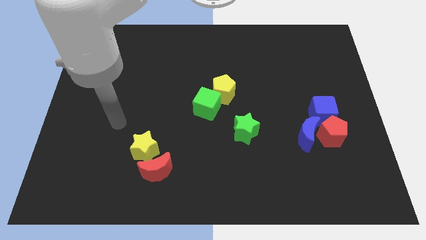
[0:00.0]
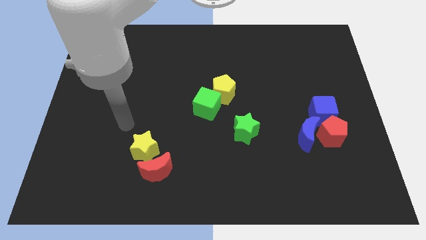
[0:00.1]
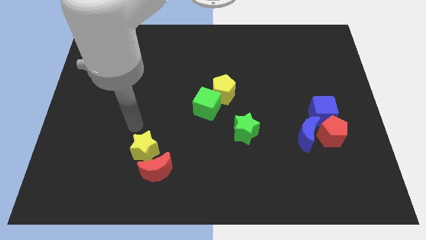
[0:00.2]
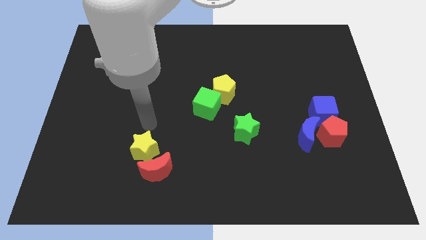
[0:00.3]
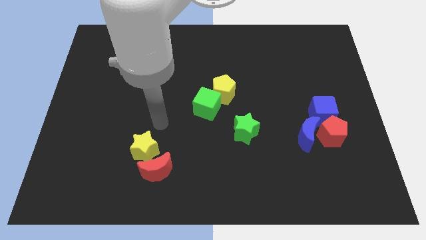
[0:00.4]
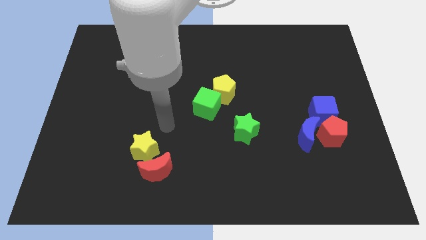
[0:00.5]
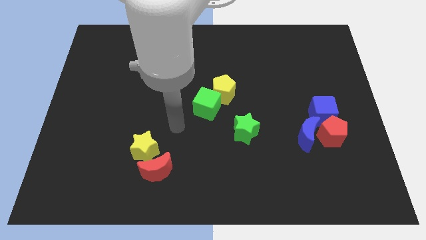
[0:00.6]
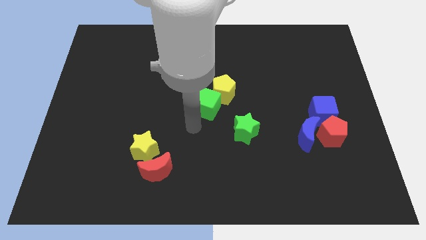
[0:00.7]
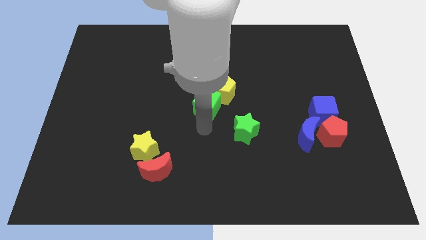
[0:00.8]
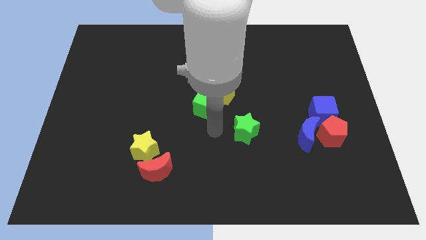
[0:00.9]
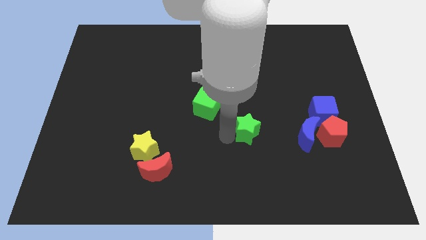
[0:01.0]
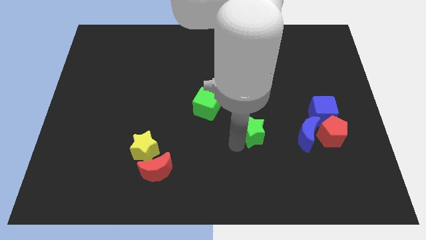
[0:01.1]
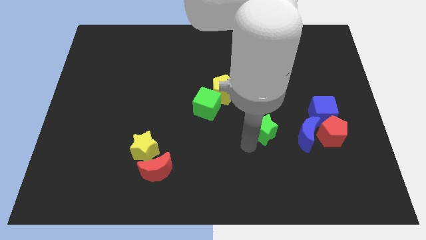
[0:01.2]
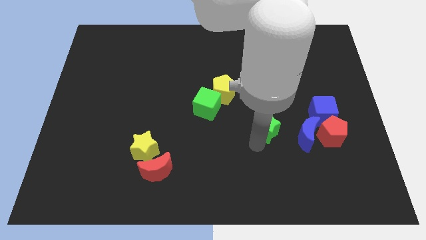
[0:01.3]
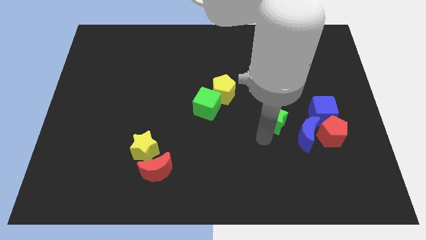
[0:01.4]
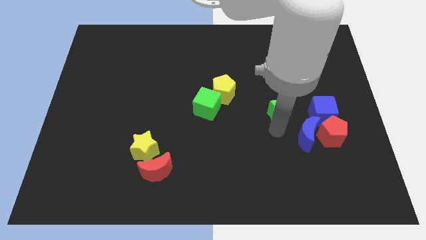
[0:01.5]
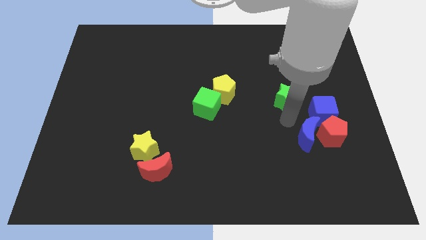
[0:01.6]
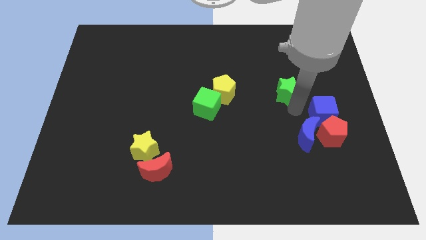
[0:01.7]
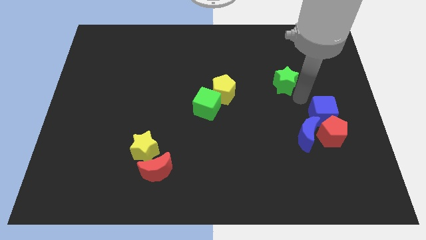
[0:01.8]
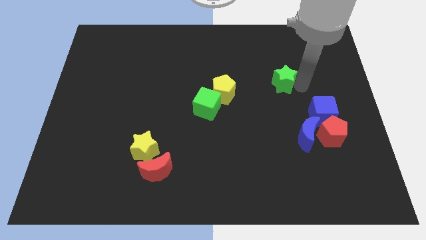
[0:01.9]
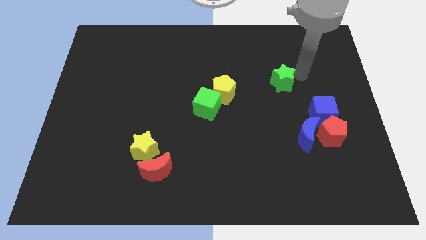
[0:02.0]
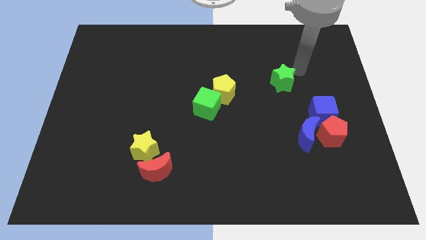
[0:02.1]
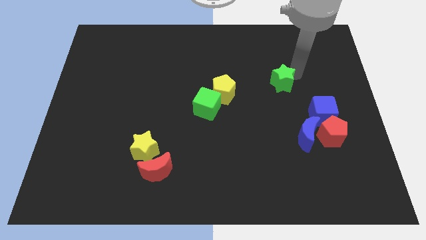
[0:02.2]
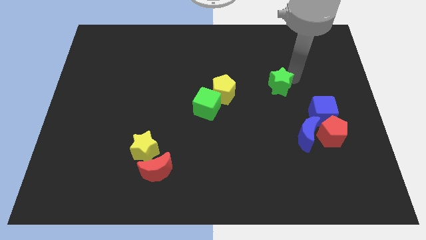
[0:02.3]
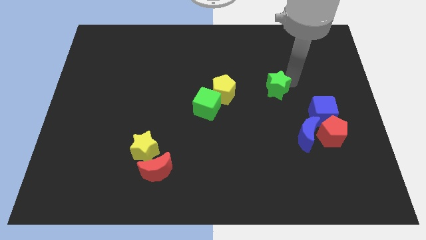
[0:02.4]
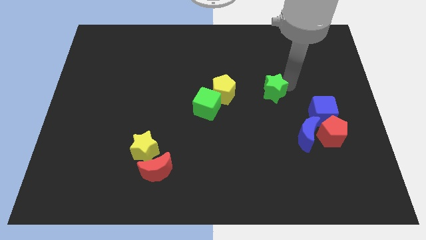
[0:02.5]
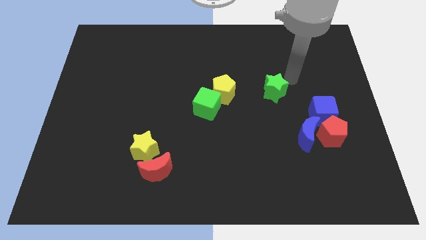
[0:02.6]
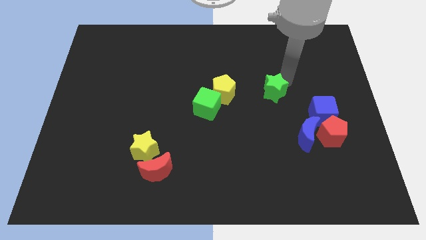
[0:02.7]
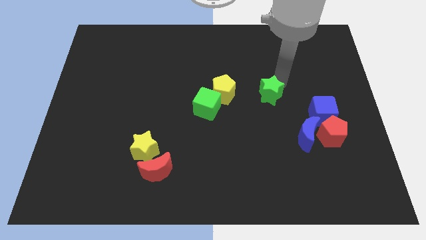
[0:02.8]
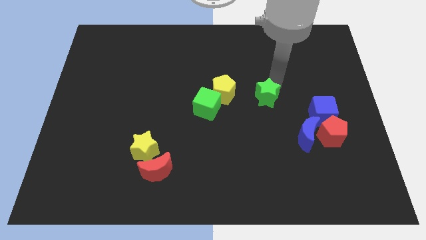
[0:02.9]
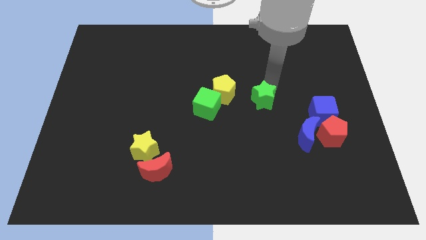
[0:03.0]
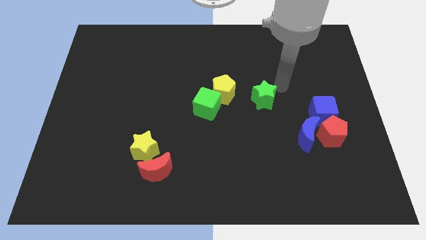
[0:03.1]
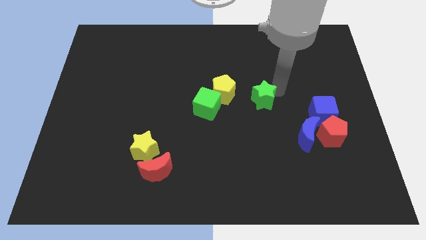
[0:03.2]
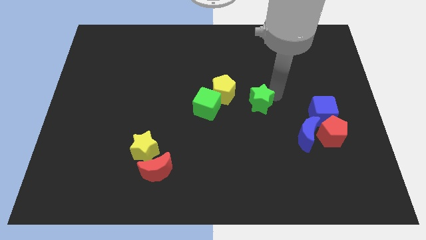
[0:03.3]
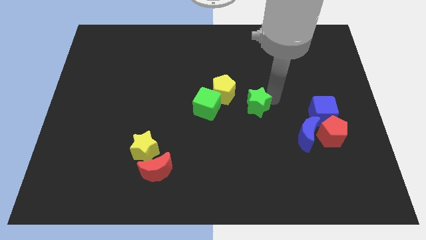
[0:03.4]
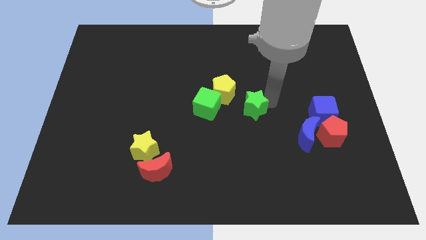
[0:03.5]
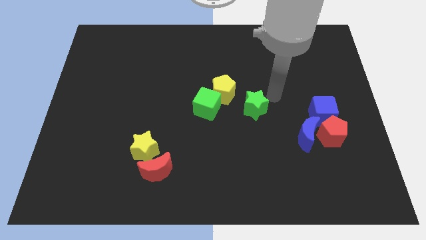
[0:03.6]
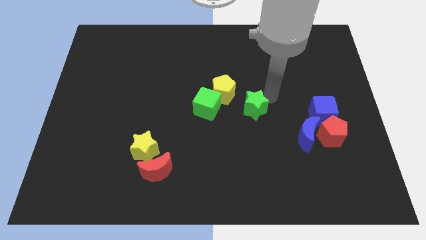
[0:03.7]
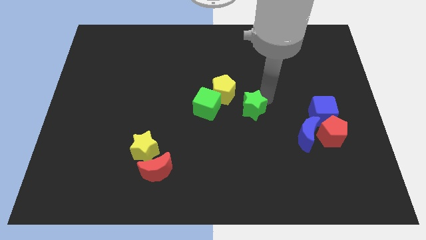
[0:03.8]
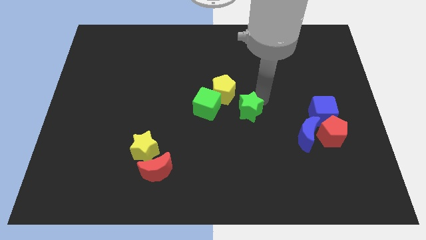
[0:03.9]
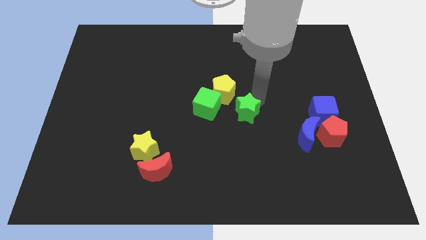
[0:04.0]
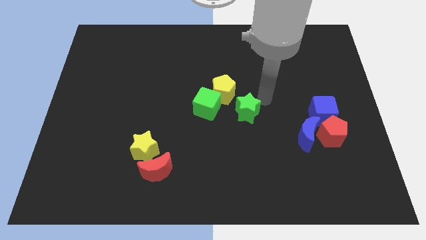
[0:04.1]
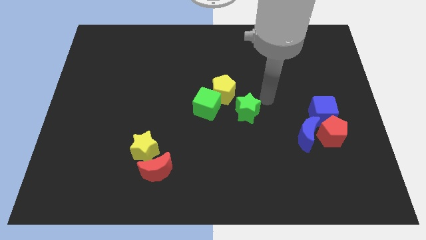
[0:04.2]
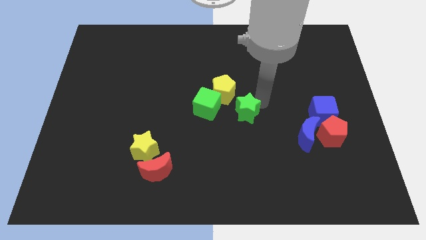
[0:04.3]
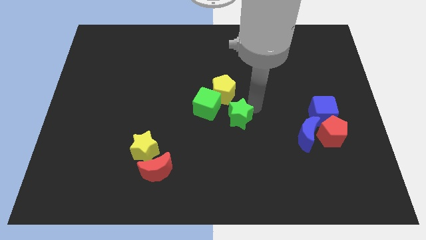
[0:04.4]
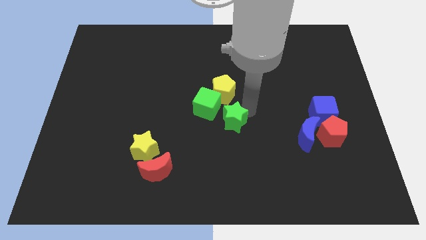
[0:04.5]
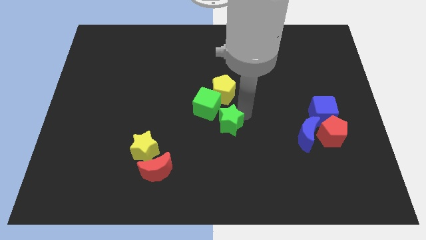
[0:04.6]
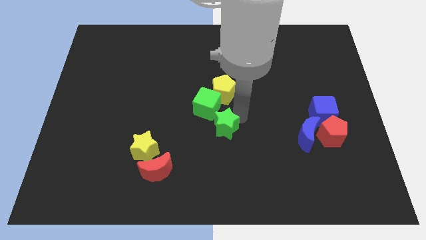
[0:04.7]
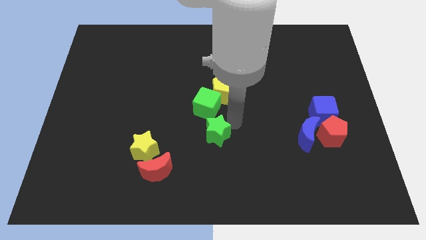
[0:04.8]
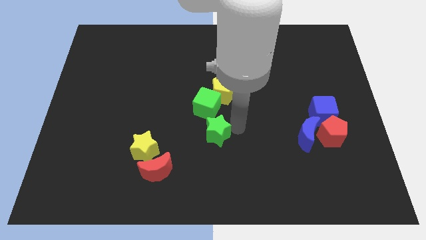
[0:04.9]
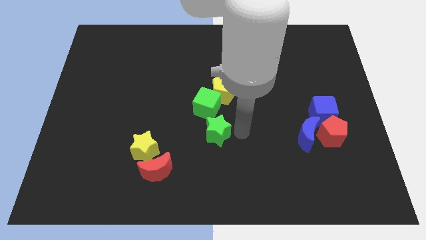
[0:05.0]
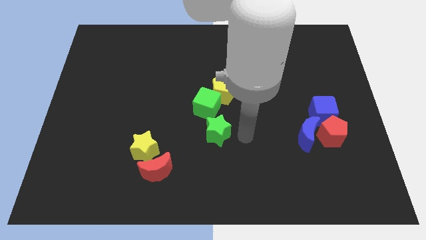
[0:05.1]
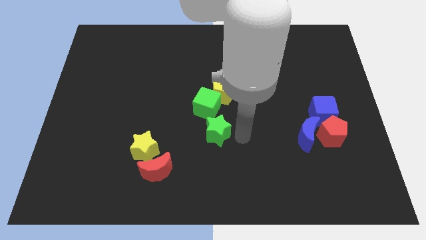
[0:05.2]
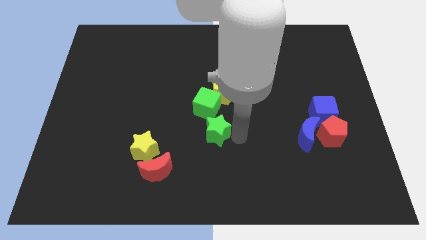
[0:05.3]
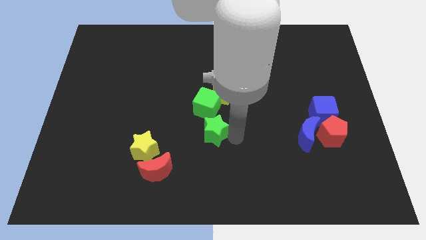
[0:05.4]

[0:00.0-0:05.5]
slide the green star a bit to the left

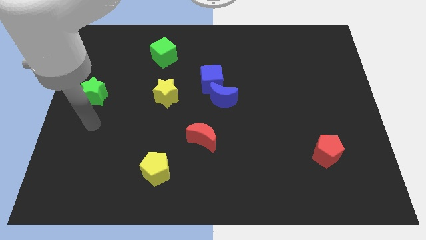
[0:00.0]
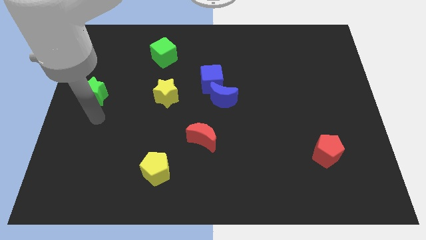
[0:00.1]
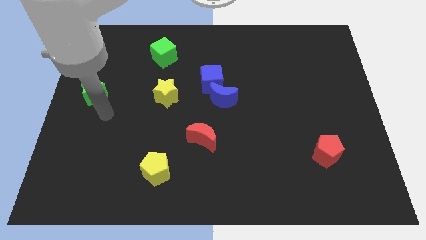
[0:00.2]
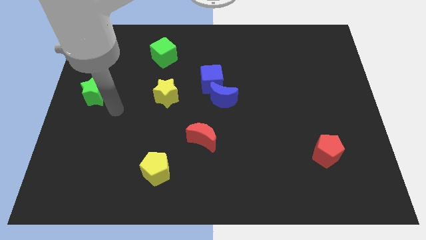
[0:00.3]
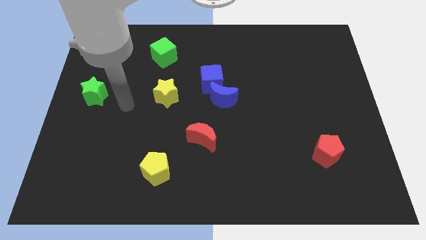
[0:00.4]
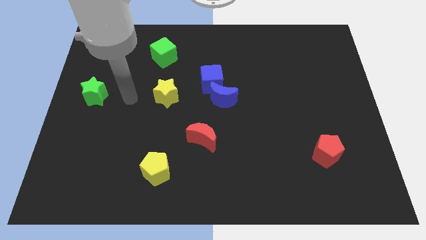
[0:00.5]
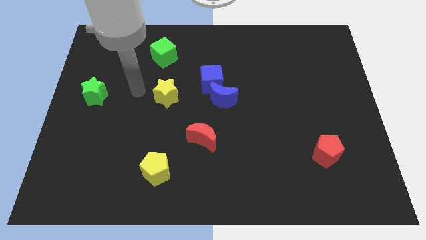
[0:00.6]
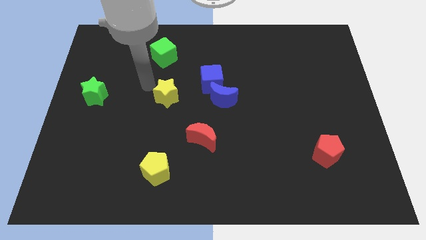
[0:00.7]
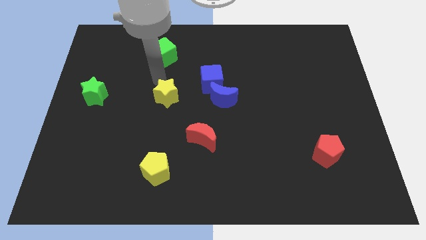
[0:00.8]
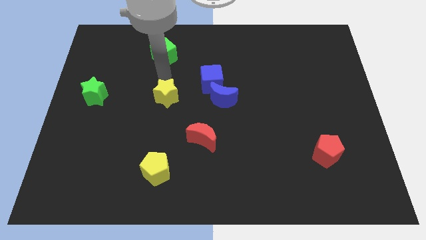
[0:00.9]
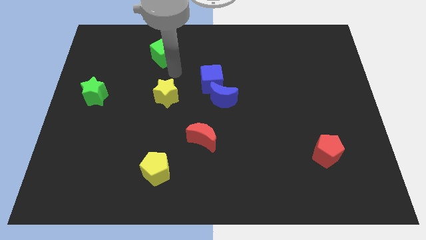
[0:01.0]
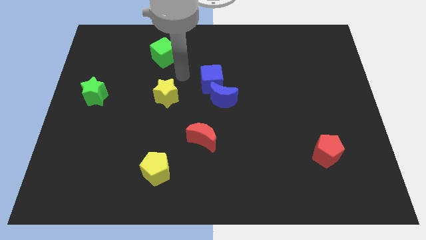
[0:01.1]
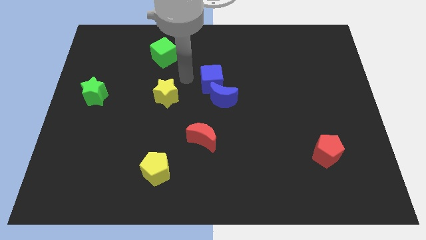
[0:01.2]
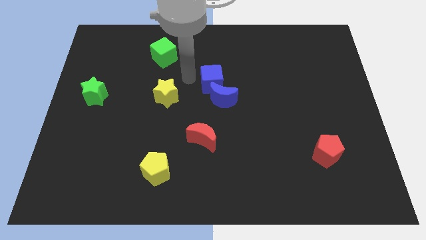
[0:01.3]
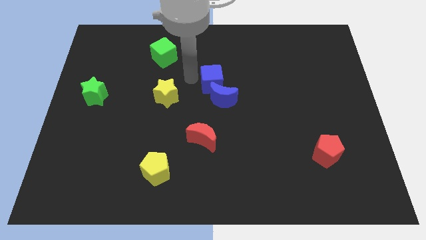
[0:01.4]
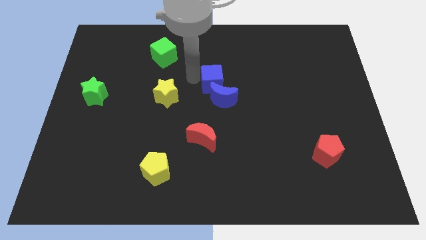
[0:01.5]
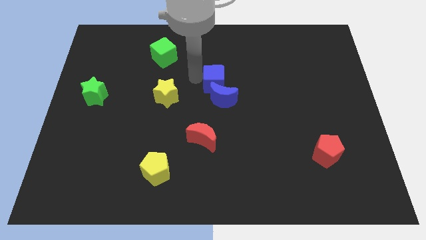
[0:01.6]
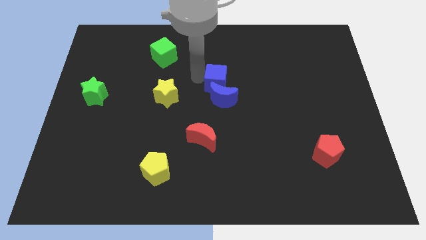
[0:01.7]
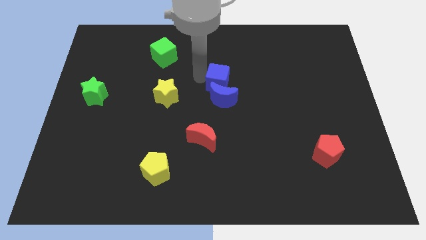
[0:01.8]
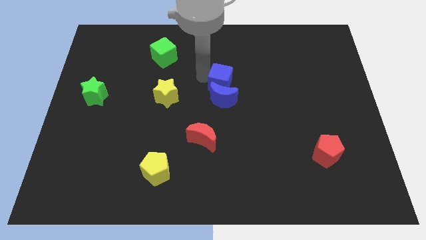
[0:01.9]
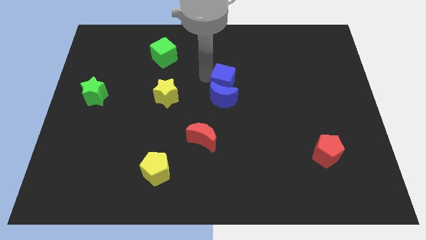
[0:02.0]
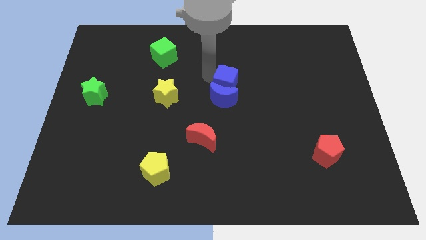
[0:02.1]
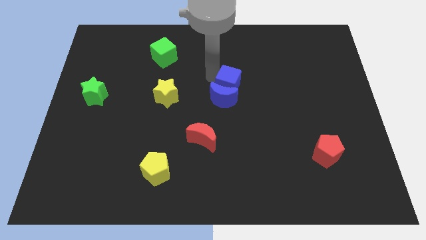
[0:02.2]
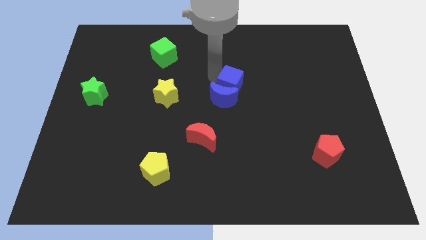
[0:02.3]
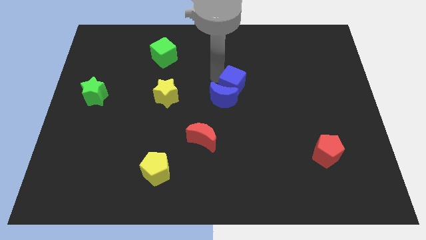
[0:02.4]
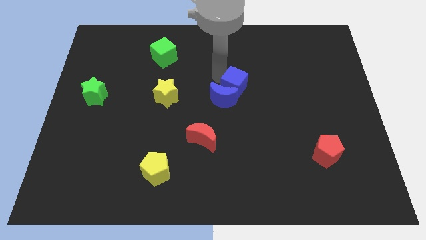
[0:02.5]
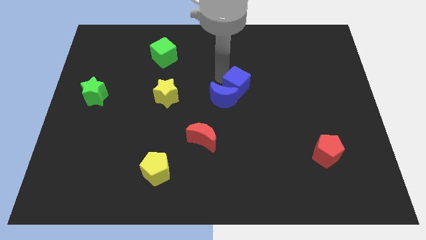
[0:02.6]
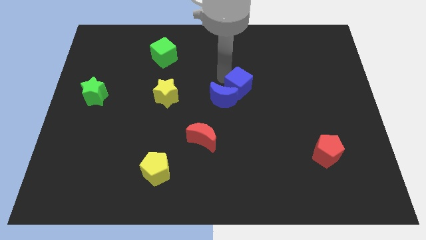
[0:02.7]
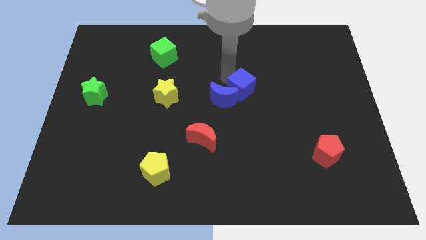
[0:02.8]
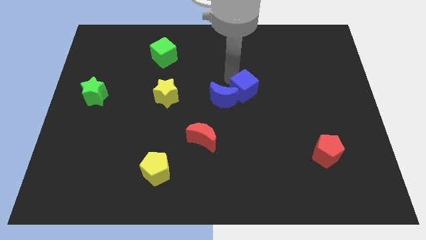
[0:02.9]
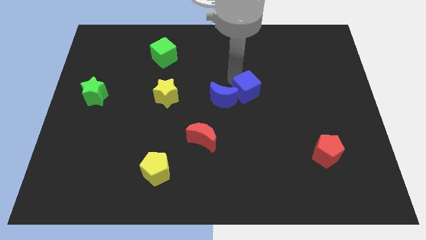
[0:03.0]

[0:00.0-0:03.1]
move the blue cube a bit downwards and to the right diagonally
